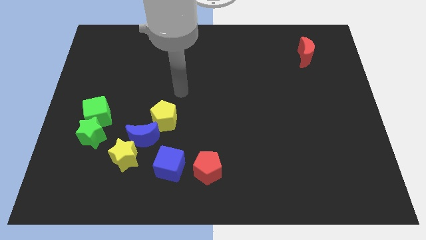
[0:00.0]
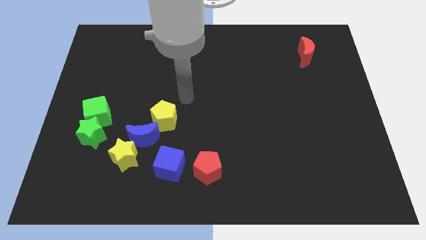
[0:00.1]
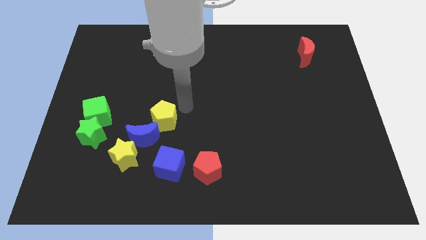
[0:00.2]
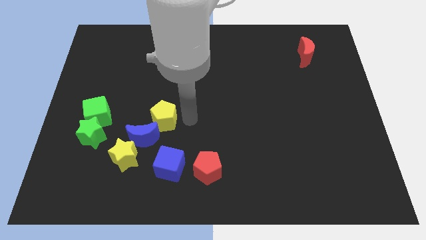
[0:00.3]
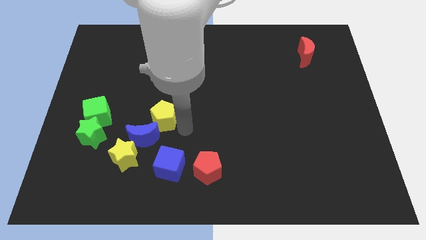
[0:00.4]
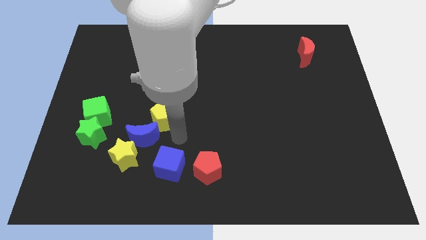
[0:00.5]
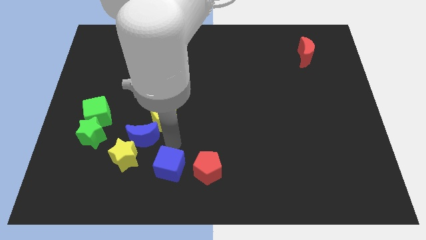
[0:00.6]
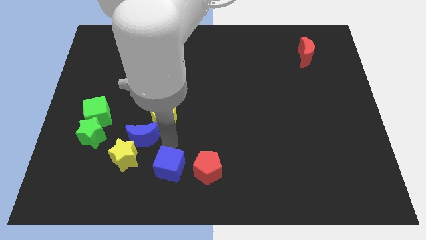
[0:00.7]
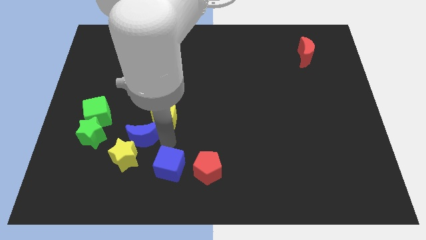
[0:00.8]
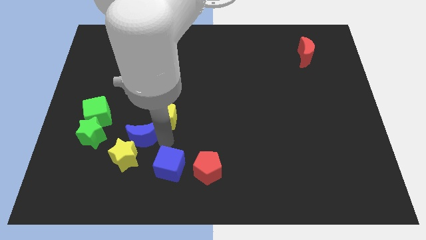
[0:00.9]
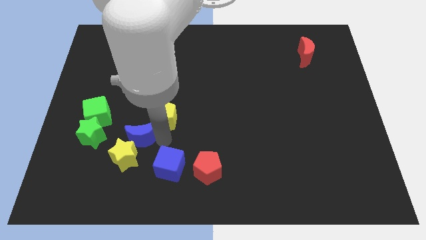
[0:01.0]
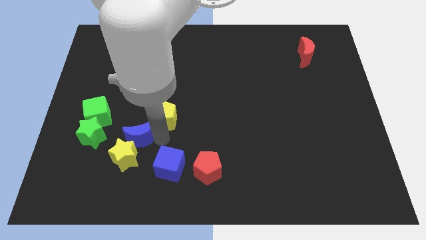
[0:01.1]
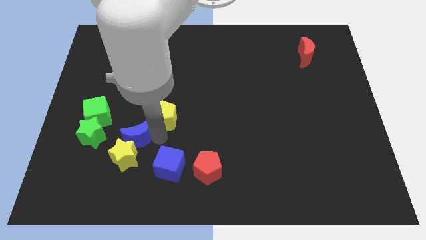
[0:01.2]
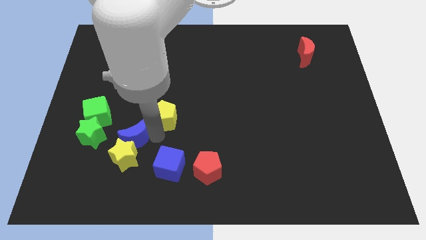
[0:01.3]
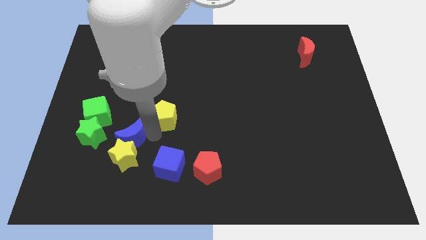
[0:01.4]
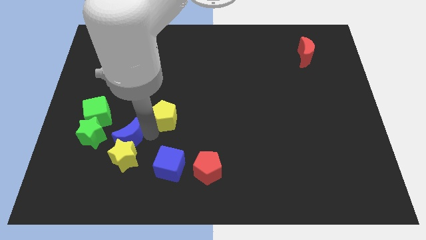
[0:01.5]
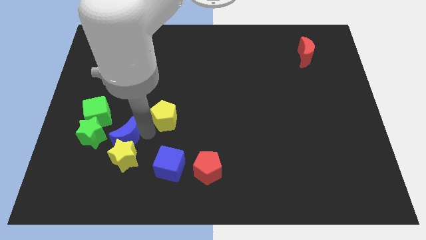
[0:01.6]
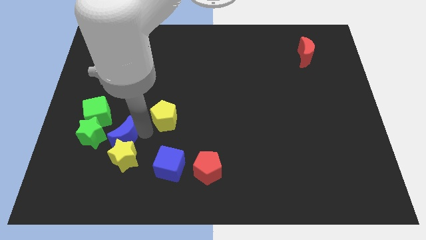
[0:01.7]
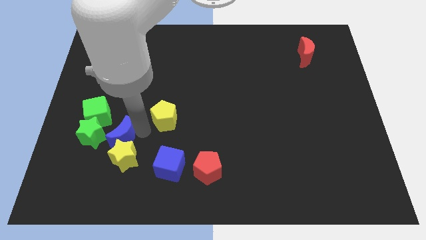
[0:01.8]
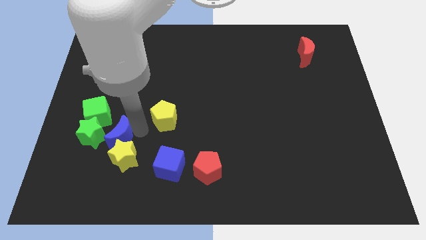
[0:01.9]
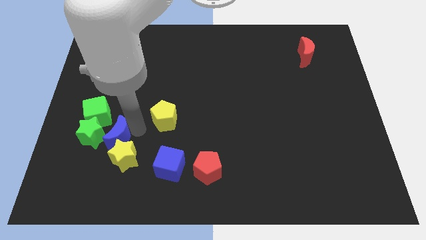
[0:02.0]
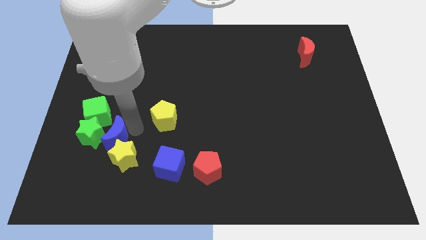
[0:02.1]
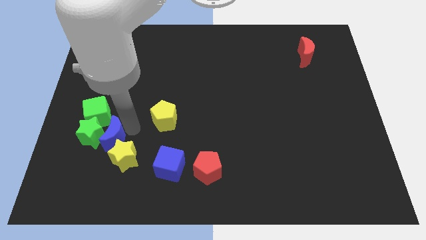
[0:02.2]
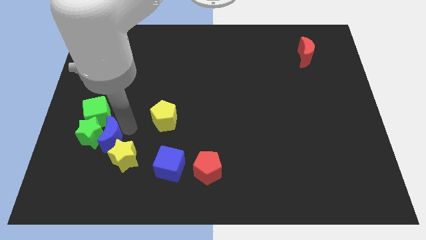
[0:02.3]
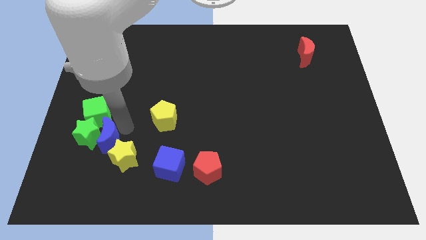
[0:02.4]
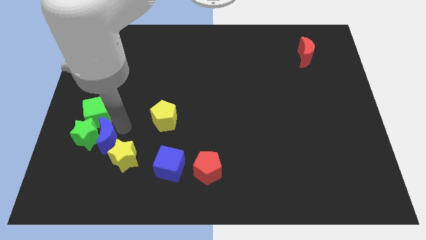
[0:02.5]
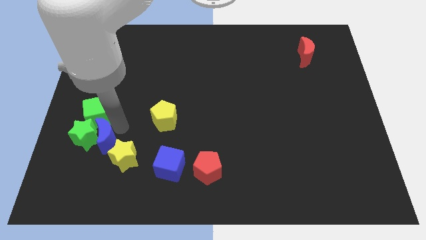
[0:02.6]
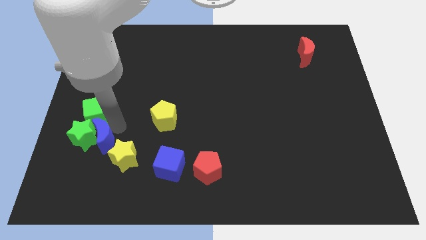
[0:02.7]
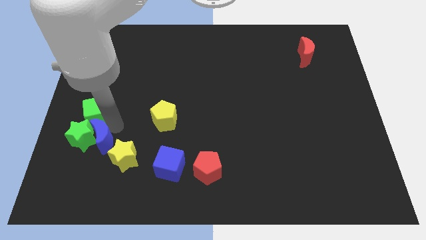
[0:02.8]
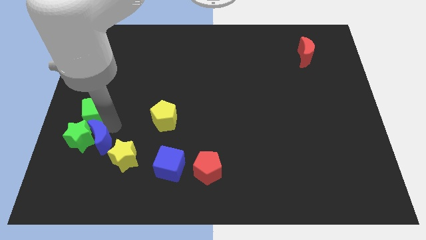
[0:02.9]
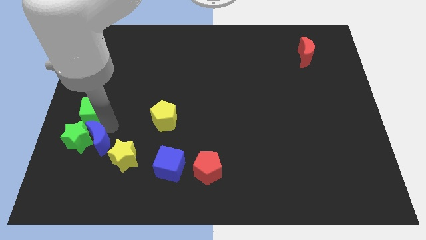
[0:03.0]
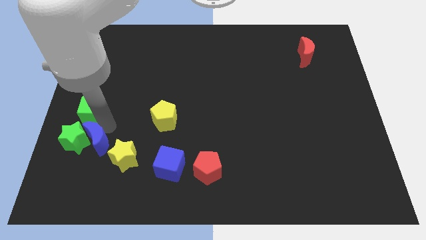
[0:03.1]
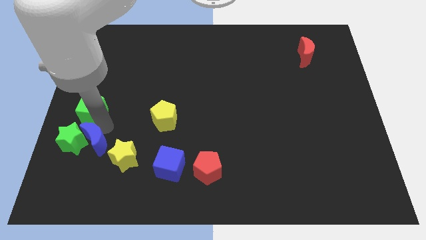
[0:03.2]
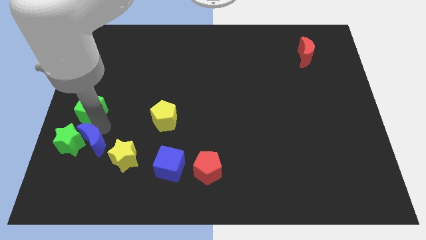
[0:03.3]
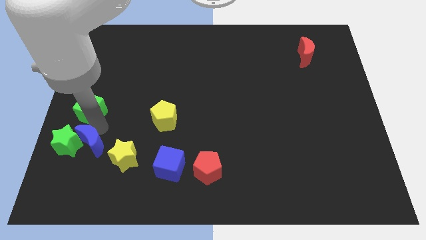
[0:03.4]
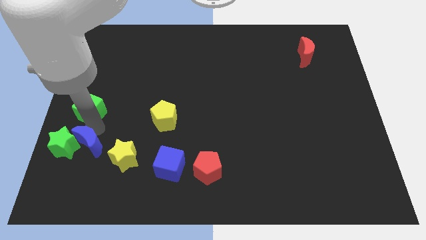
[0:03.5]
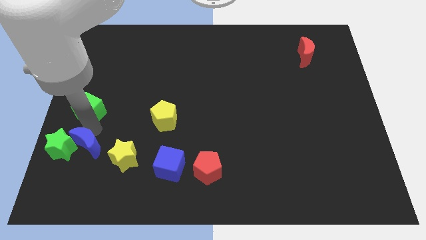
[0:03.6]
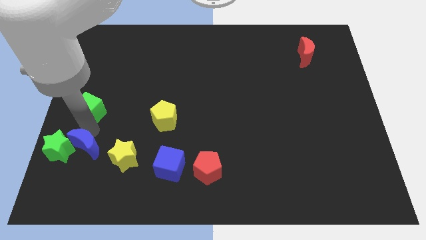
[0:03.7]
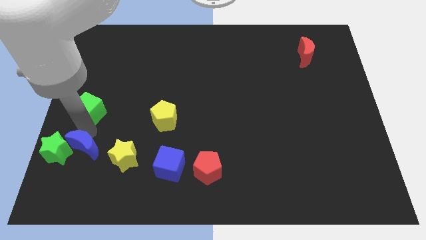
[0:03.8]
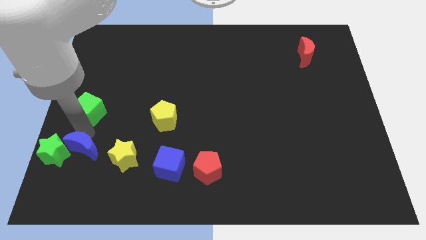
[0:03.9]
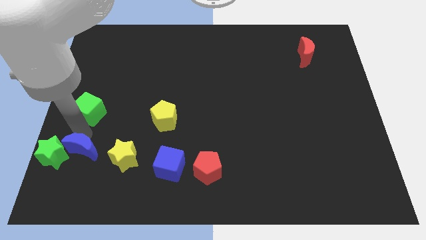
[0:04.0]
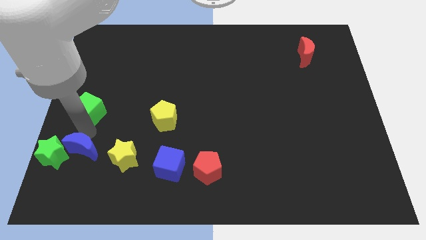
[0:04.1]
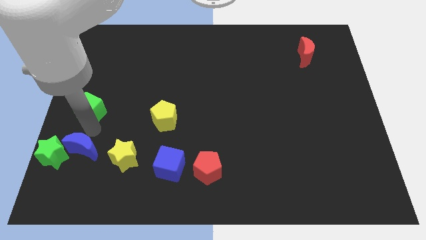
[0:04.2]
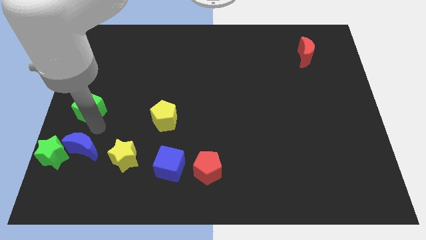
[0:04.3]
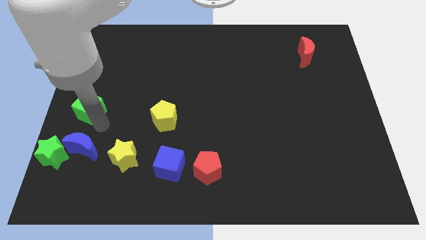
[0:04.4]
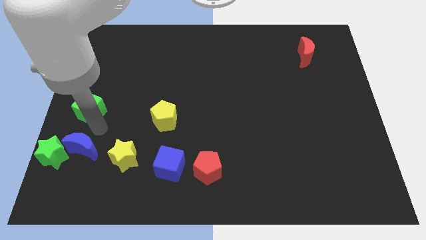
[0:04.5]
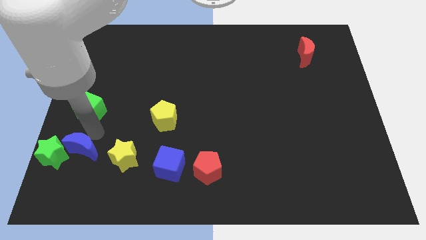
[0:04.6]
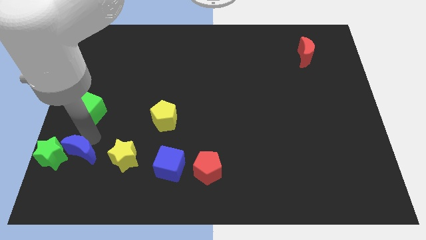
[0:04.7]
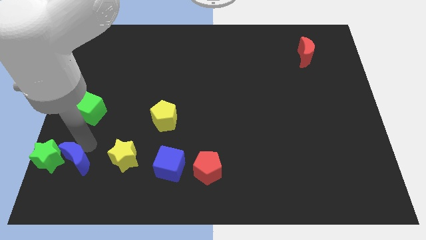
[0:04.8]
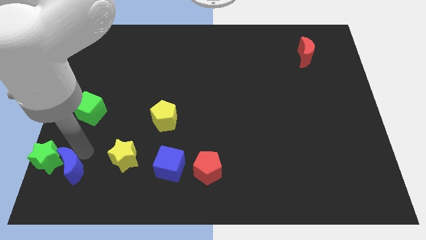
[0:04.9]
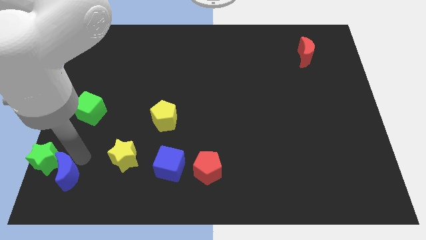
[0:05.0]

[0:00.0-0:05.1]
move the blue moon to the bottom left
